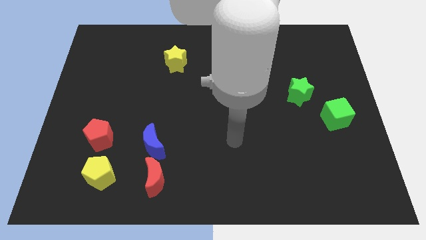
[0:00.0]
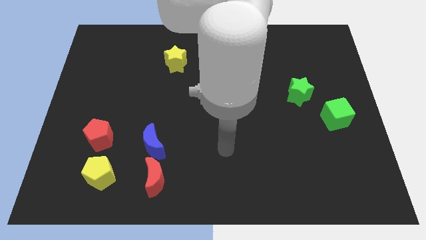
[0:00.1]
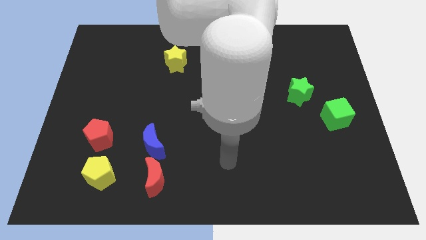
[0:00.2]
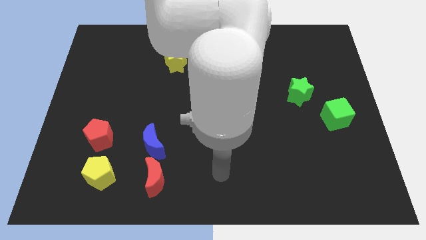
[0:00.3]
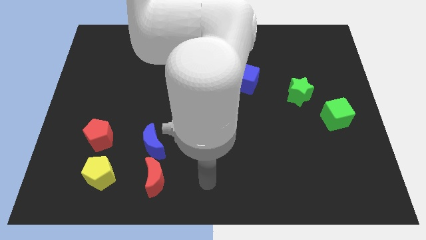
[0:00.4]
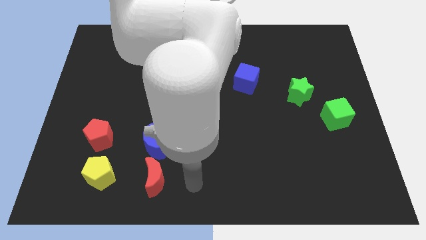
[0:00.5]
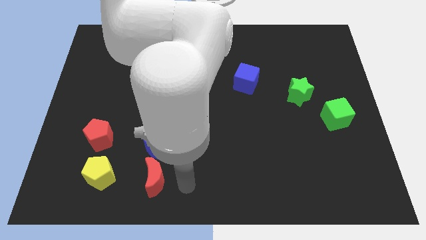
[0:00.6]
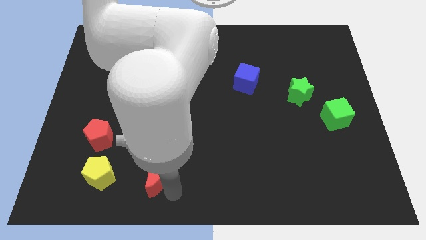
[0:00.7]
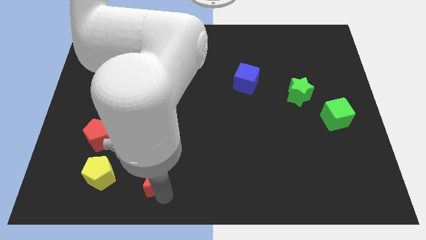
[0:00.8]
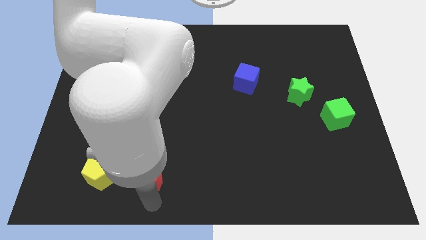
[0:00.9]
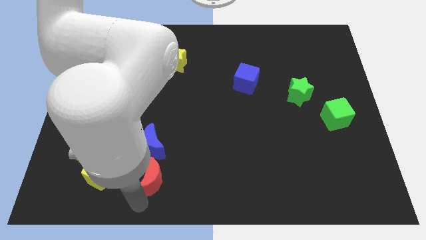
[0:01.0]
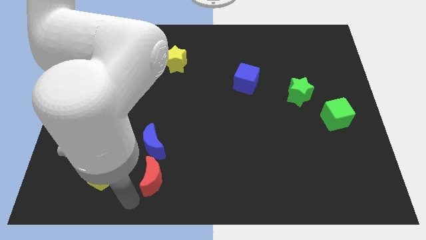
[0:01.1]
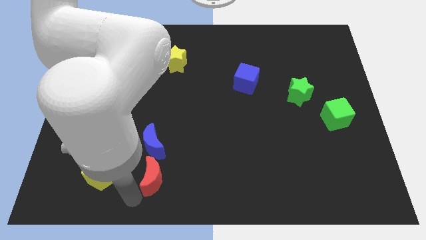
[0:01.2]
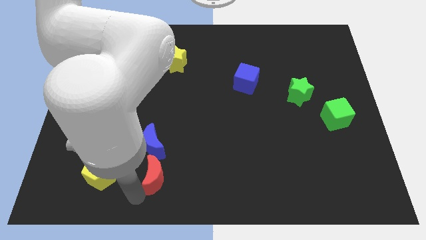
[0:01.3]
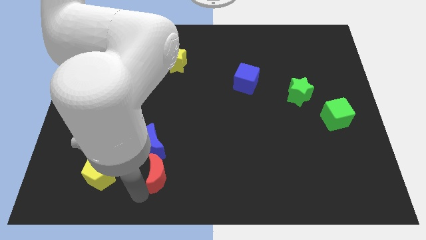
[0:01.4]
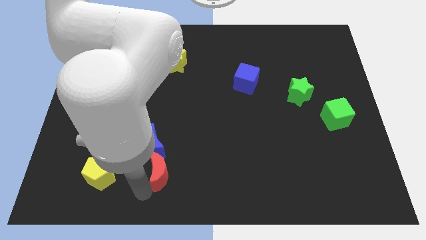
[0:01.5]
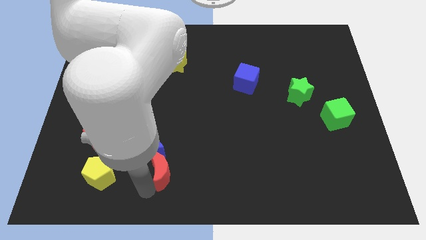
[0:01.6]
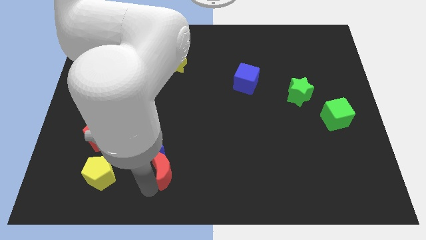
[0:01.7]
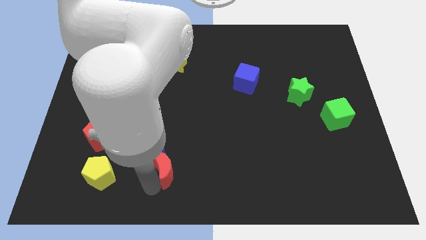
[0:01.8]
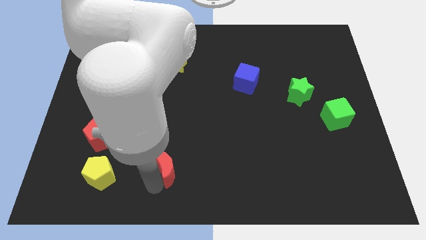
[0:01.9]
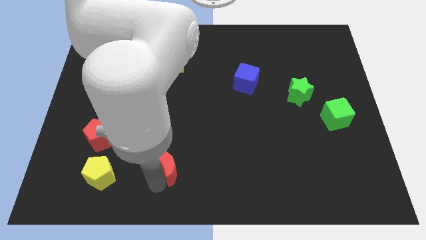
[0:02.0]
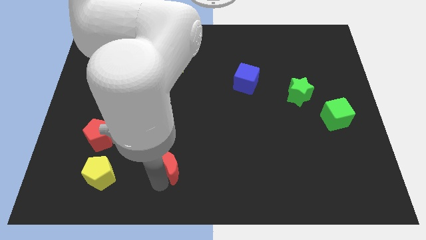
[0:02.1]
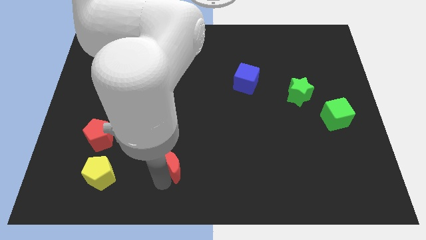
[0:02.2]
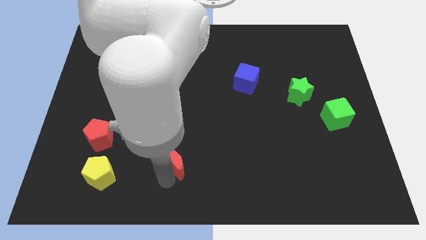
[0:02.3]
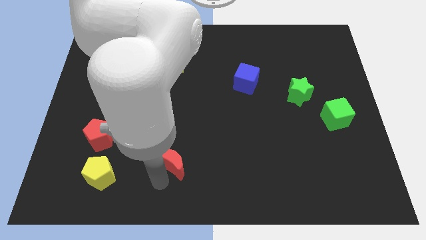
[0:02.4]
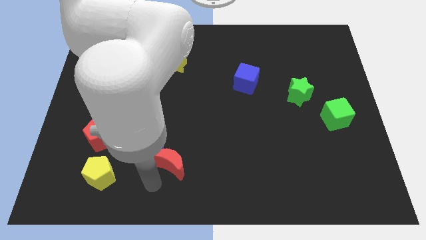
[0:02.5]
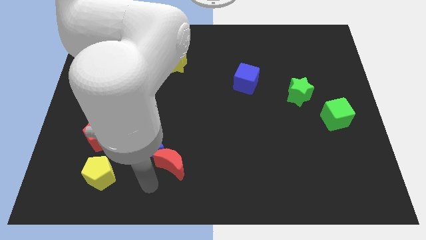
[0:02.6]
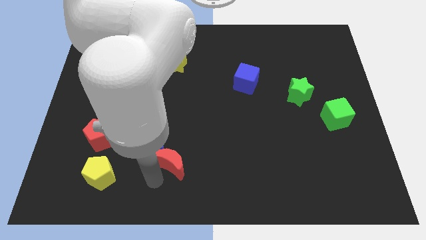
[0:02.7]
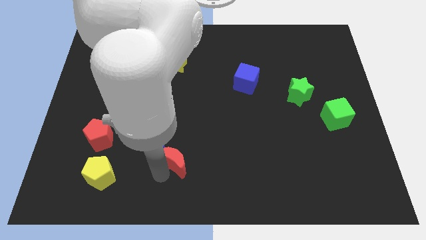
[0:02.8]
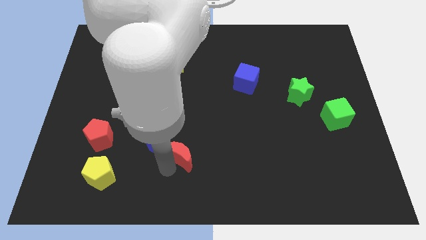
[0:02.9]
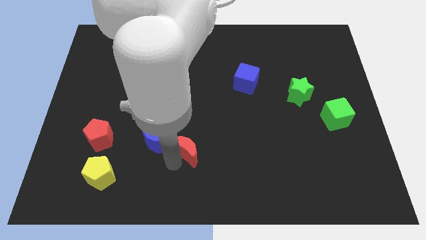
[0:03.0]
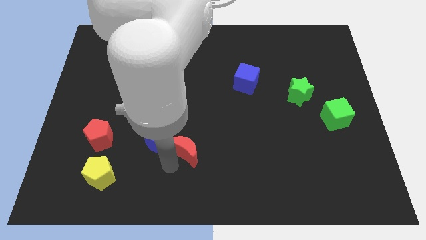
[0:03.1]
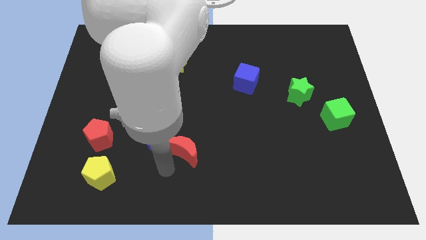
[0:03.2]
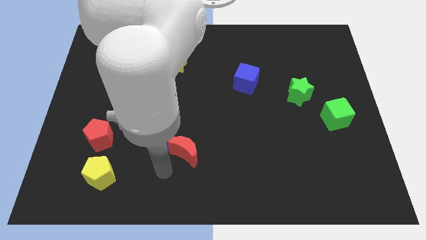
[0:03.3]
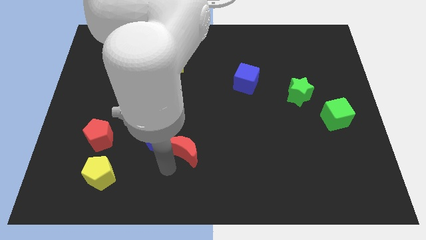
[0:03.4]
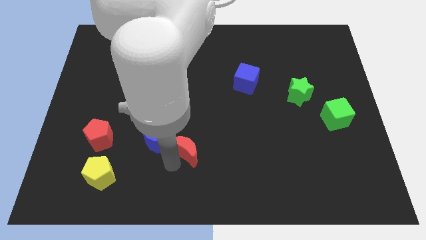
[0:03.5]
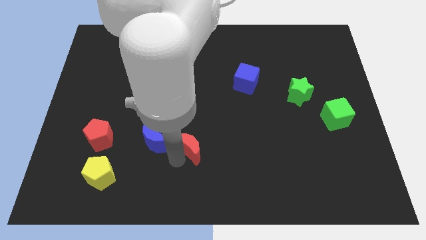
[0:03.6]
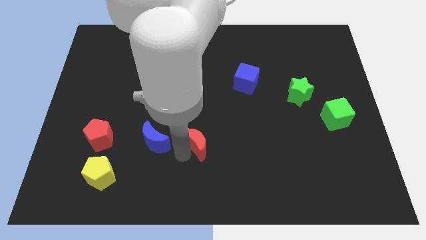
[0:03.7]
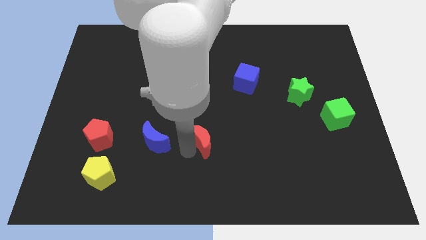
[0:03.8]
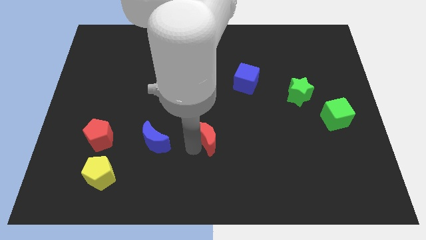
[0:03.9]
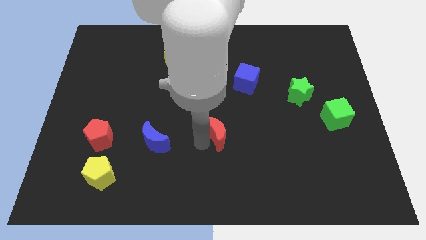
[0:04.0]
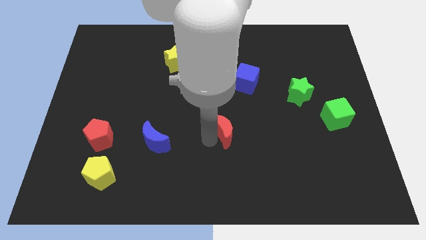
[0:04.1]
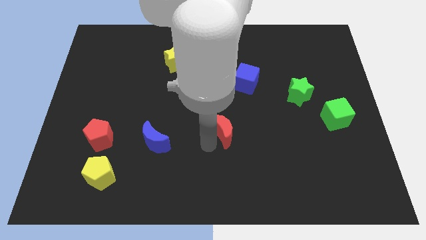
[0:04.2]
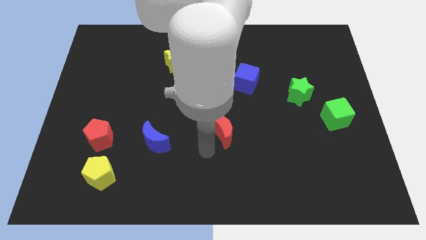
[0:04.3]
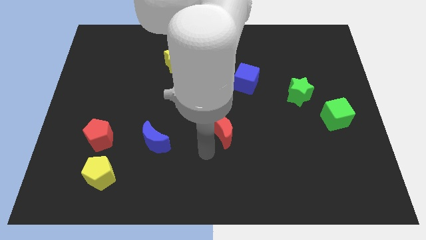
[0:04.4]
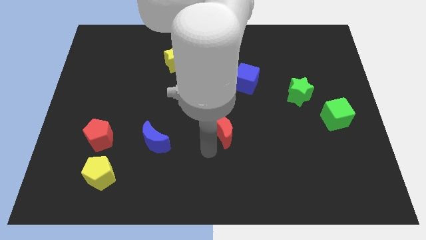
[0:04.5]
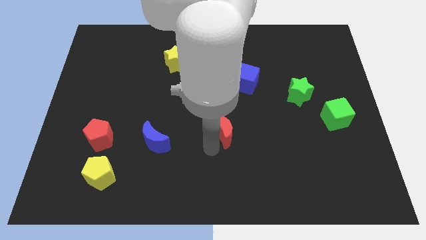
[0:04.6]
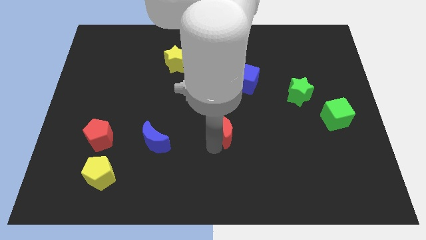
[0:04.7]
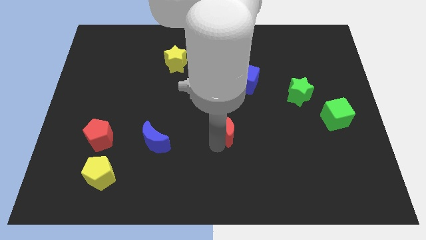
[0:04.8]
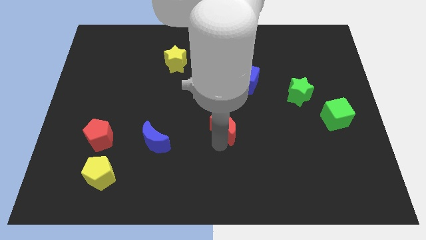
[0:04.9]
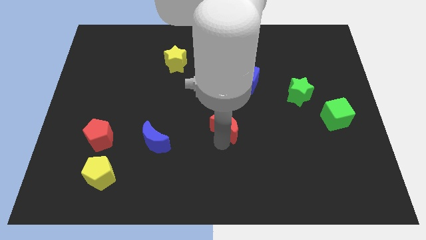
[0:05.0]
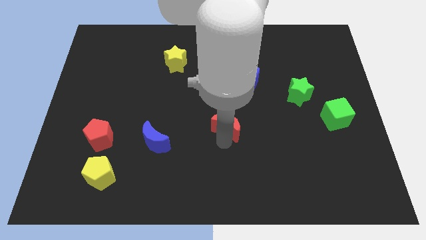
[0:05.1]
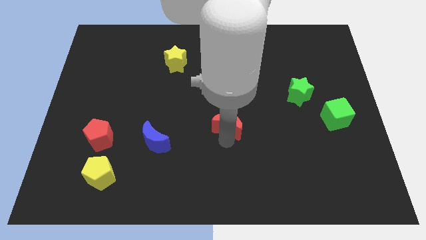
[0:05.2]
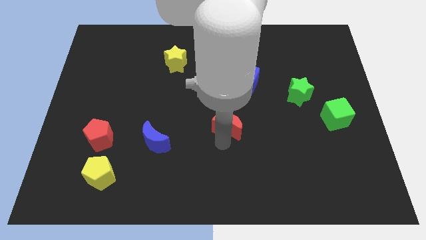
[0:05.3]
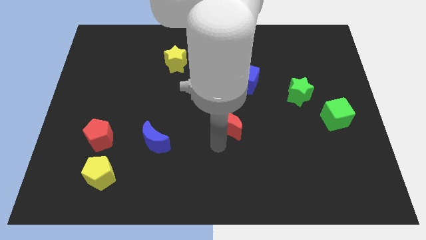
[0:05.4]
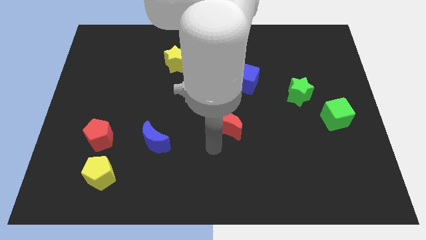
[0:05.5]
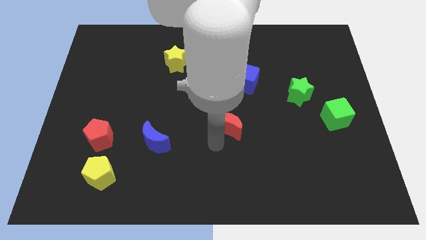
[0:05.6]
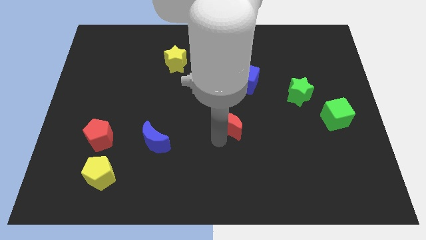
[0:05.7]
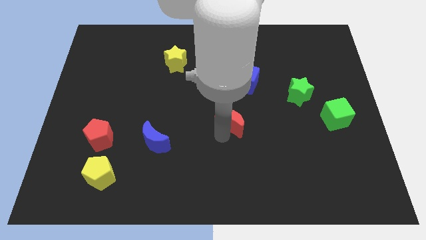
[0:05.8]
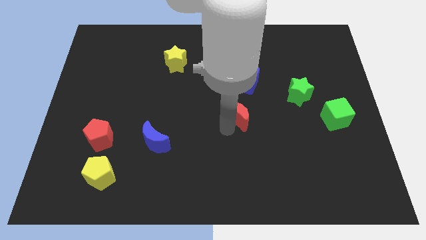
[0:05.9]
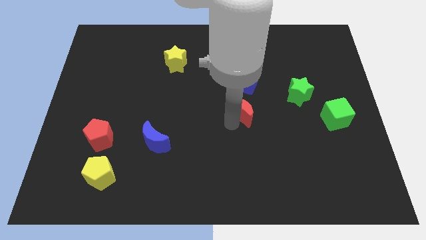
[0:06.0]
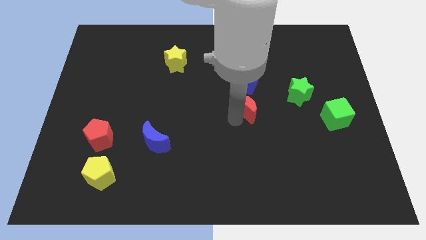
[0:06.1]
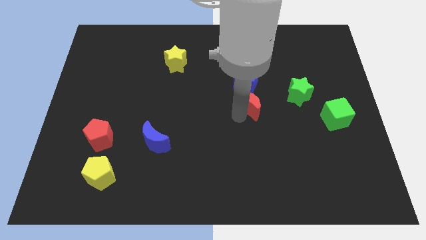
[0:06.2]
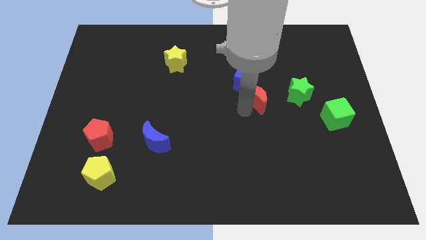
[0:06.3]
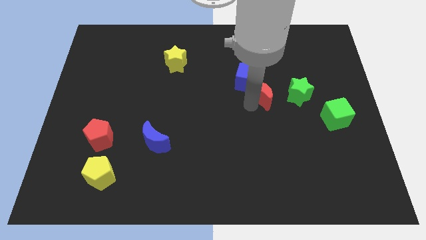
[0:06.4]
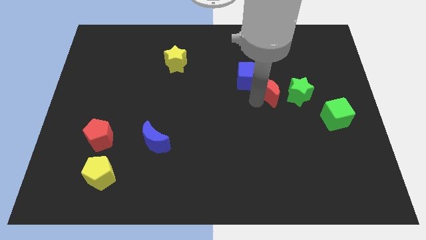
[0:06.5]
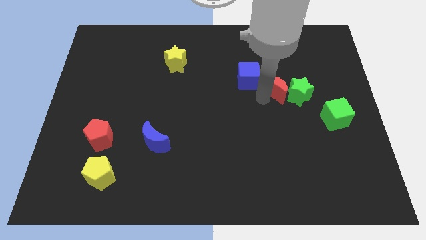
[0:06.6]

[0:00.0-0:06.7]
move the red moon to the top left of the green star

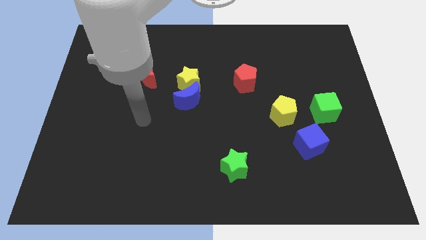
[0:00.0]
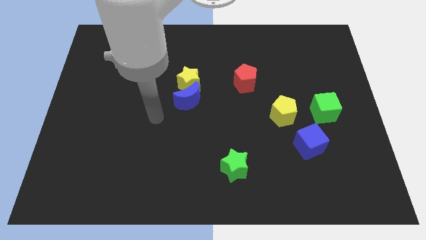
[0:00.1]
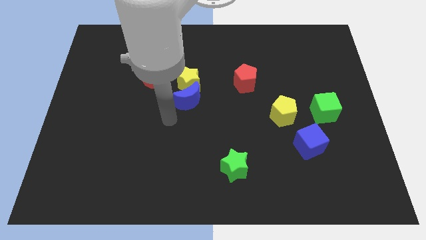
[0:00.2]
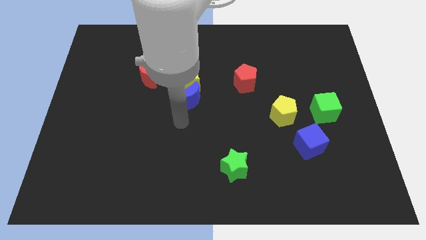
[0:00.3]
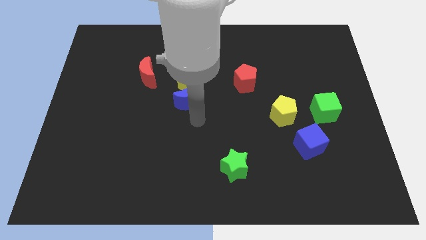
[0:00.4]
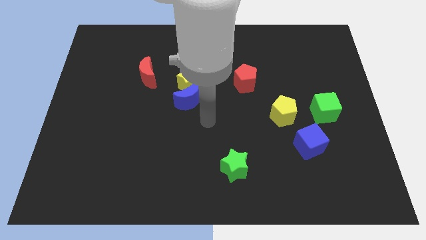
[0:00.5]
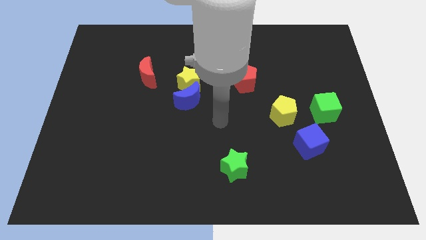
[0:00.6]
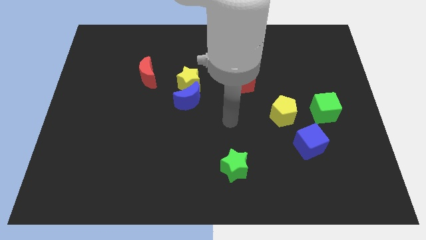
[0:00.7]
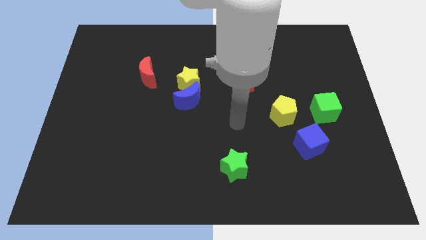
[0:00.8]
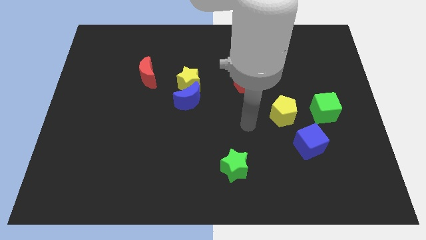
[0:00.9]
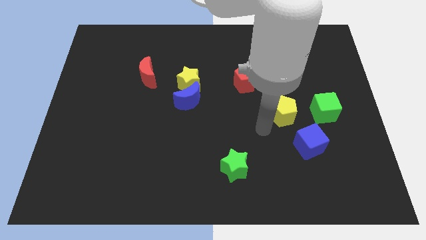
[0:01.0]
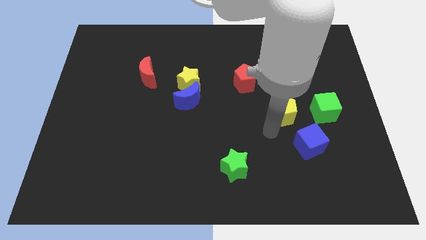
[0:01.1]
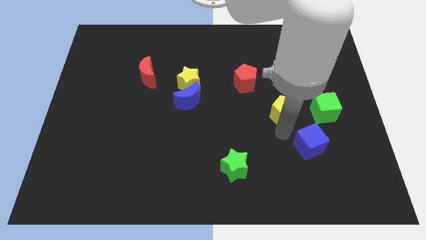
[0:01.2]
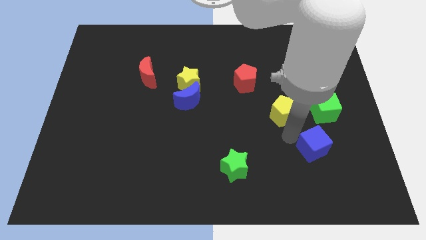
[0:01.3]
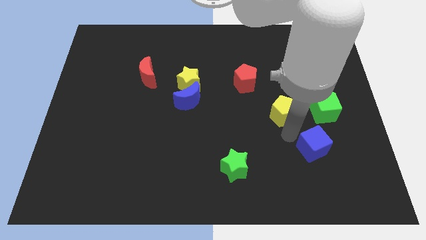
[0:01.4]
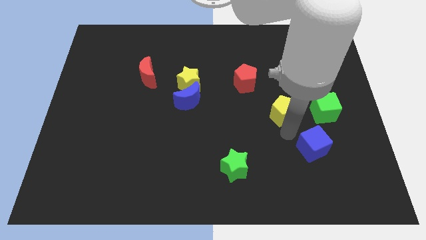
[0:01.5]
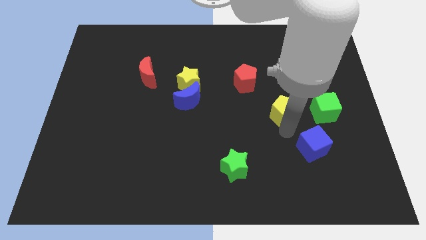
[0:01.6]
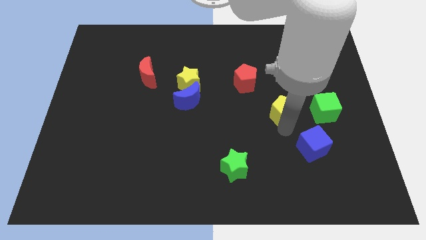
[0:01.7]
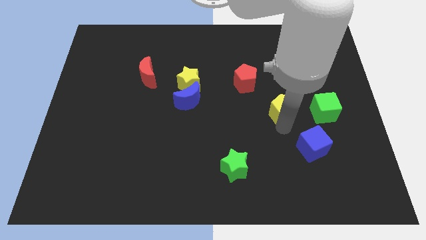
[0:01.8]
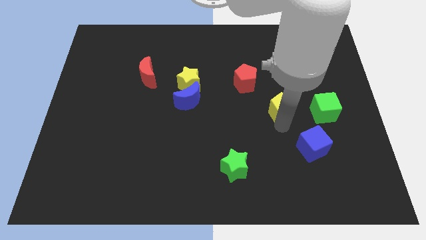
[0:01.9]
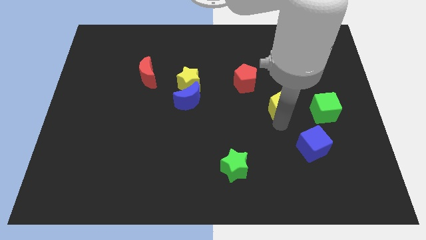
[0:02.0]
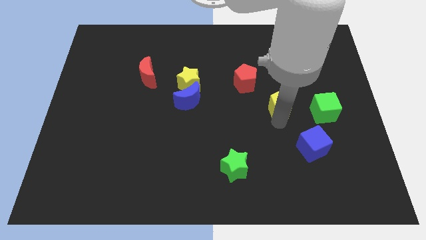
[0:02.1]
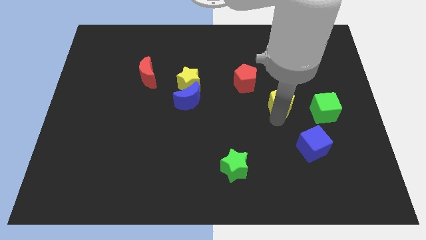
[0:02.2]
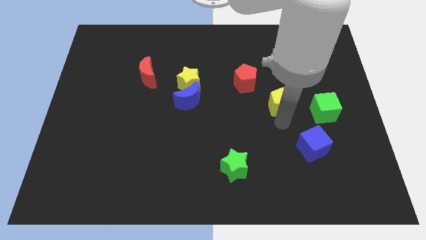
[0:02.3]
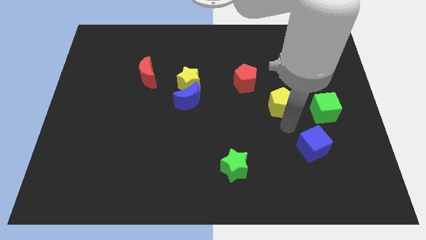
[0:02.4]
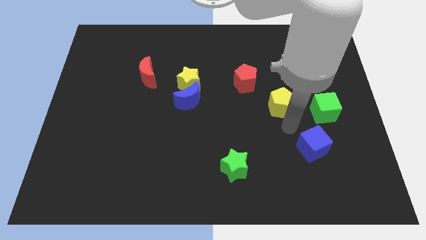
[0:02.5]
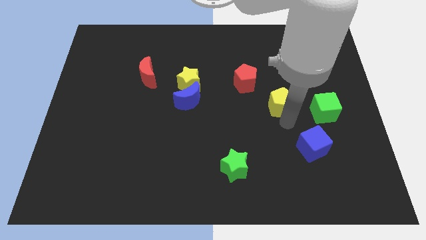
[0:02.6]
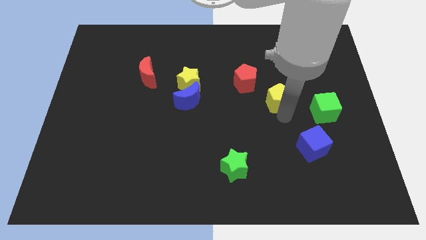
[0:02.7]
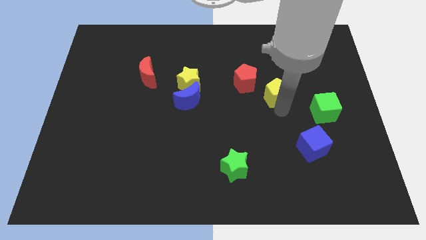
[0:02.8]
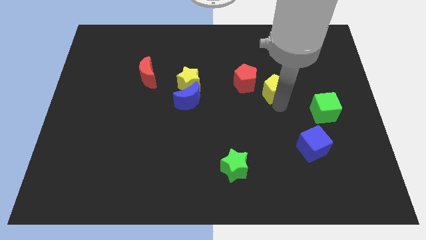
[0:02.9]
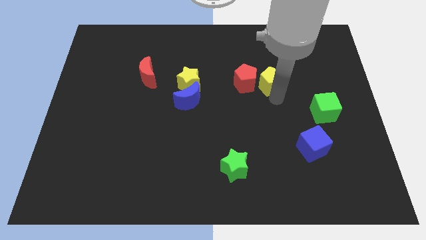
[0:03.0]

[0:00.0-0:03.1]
slide the yellow pentagon to the top right of the red pentagon
